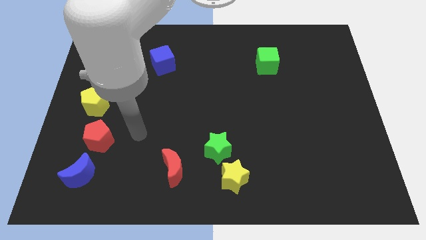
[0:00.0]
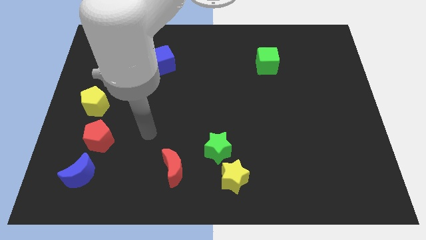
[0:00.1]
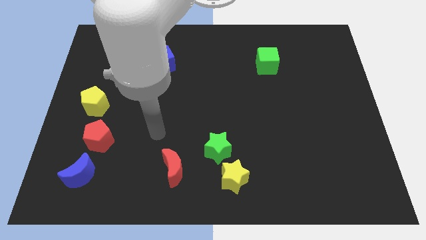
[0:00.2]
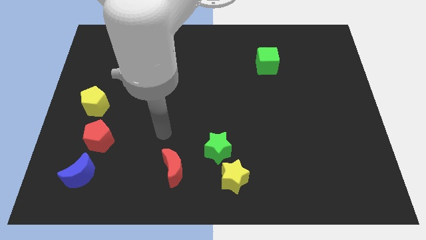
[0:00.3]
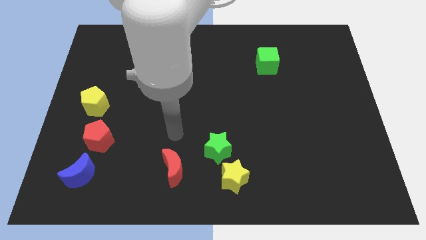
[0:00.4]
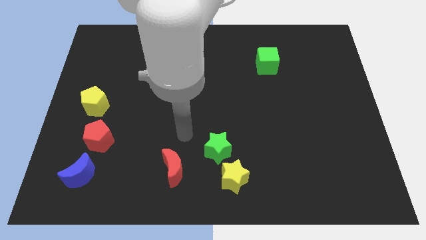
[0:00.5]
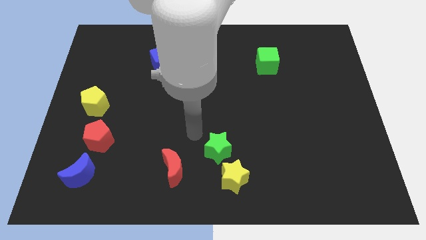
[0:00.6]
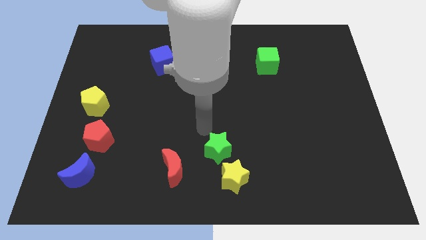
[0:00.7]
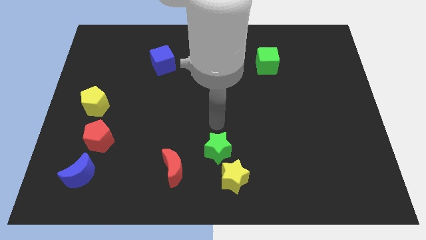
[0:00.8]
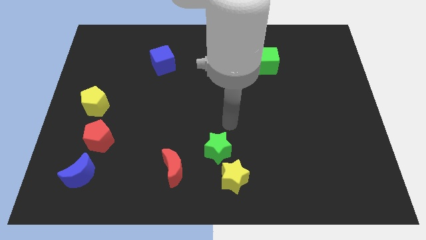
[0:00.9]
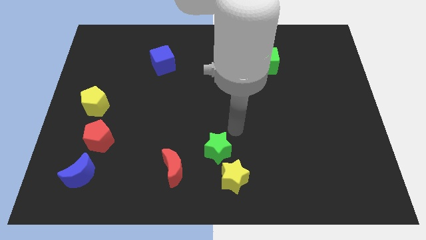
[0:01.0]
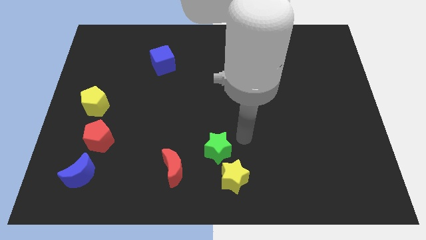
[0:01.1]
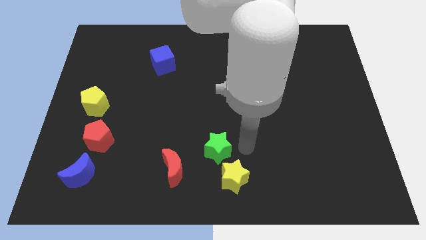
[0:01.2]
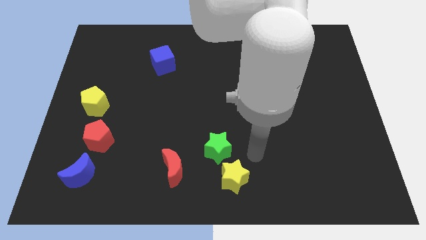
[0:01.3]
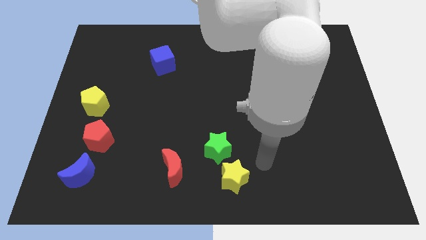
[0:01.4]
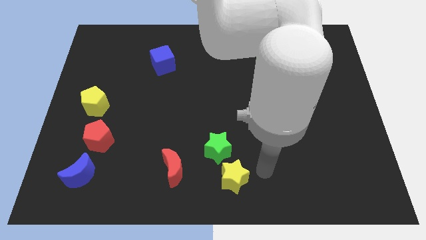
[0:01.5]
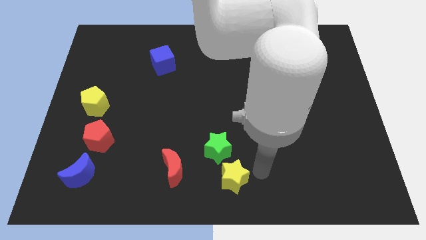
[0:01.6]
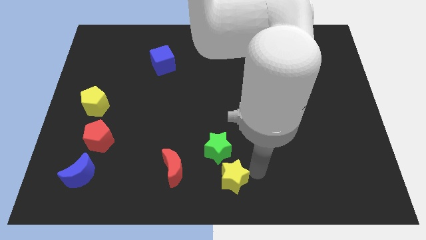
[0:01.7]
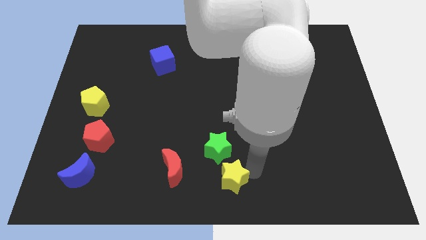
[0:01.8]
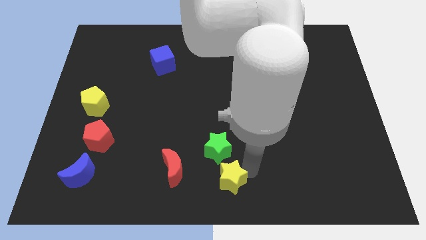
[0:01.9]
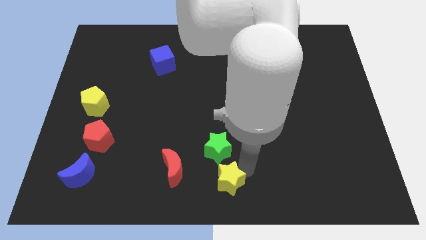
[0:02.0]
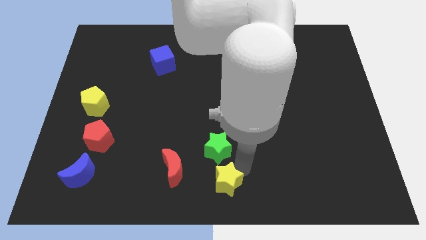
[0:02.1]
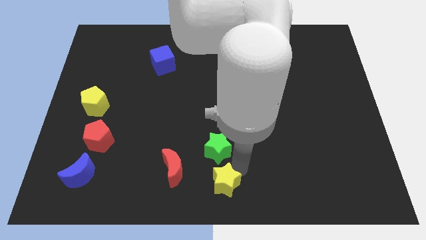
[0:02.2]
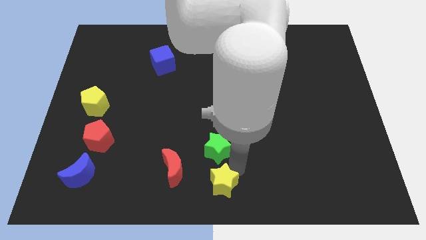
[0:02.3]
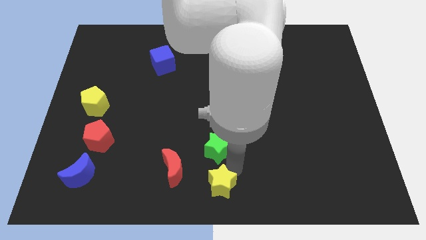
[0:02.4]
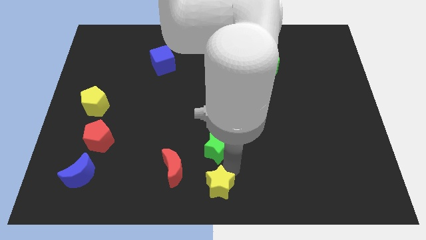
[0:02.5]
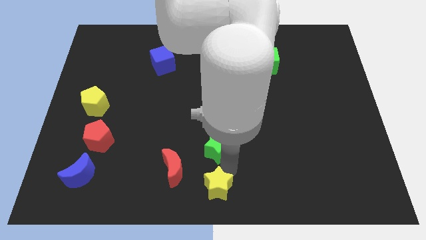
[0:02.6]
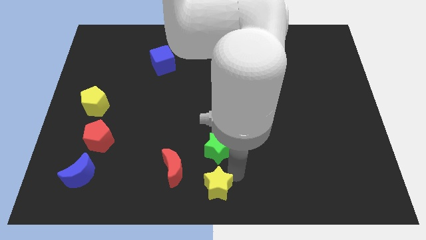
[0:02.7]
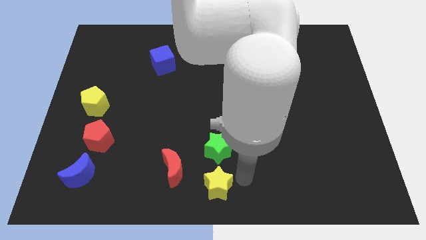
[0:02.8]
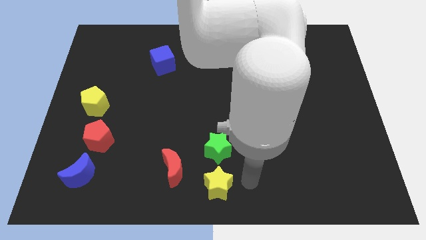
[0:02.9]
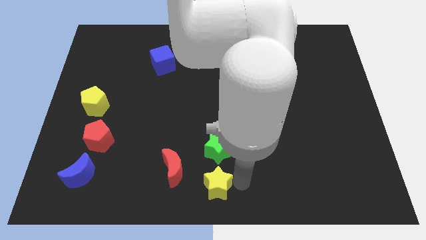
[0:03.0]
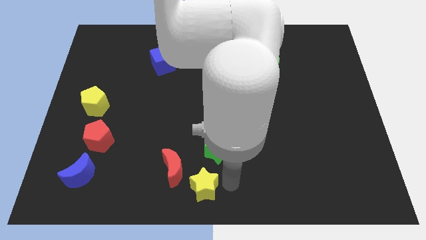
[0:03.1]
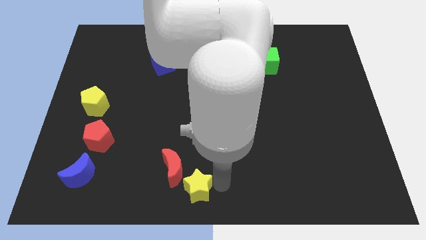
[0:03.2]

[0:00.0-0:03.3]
move the yellow star left a little bit

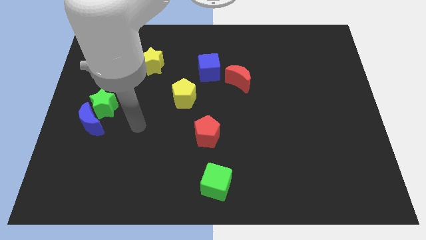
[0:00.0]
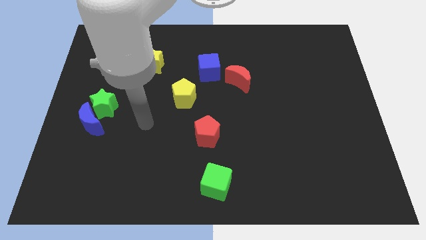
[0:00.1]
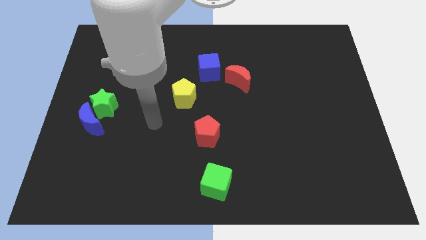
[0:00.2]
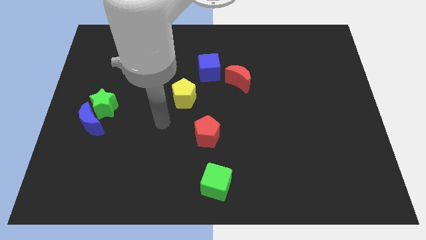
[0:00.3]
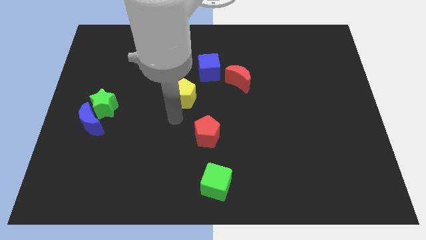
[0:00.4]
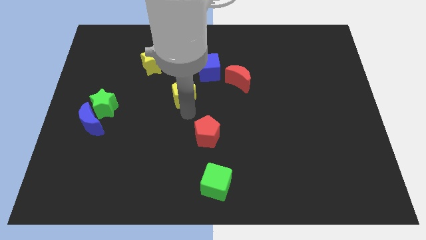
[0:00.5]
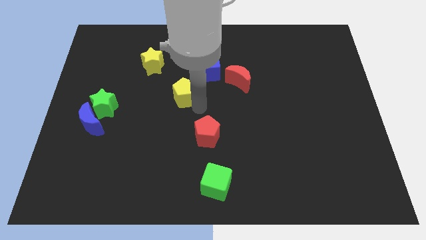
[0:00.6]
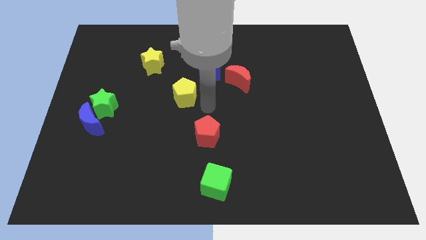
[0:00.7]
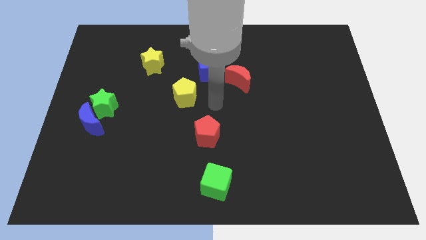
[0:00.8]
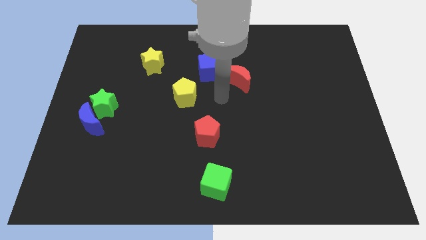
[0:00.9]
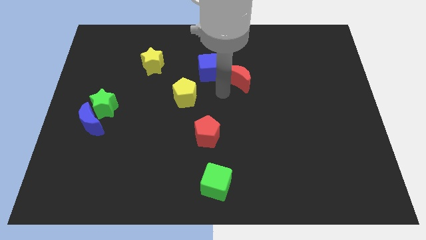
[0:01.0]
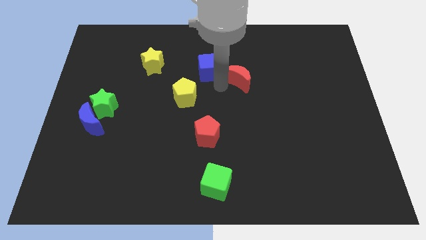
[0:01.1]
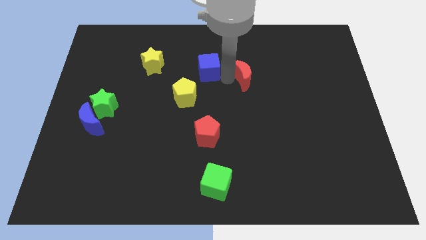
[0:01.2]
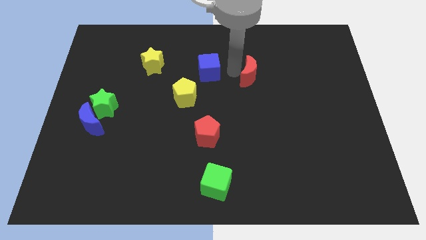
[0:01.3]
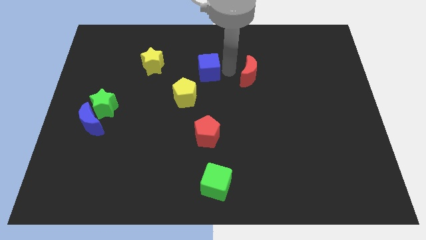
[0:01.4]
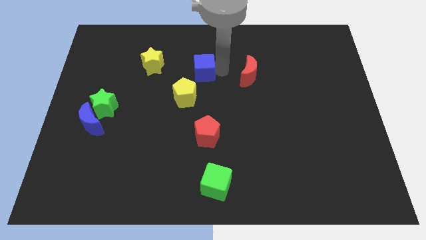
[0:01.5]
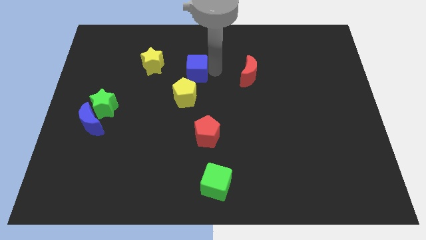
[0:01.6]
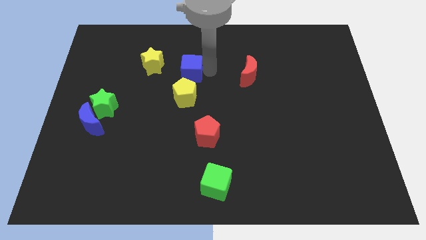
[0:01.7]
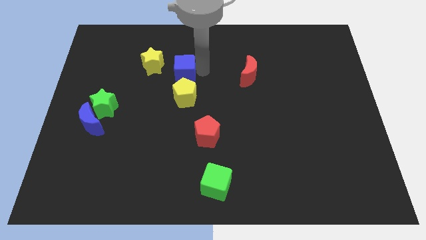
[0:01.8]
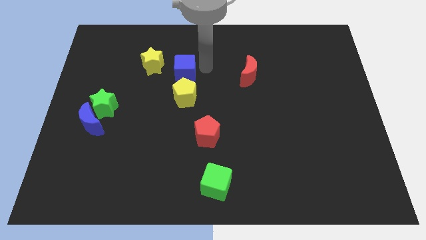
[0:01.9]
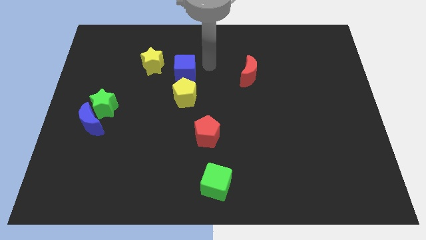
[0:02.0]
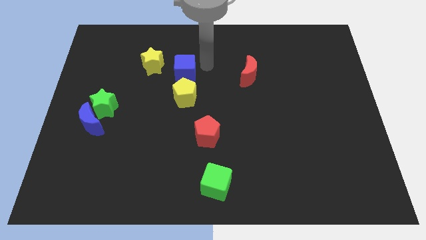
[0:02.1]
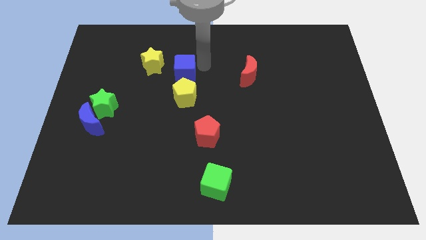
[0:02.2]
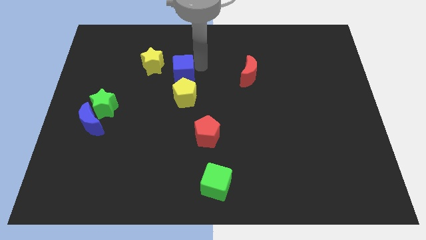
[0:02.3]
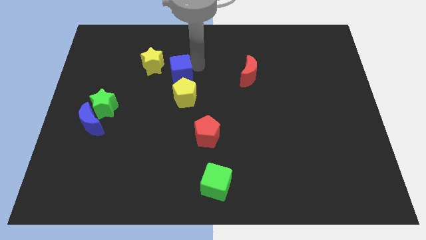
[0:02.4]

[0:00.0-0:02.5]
move the blue cube a little bit left

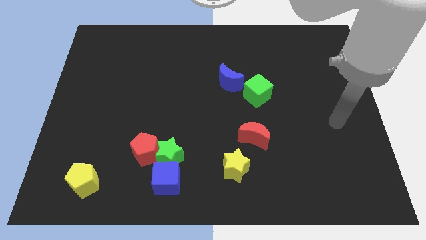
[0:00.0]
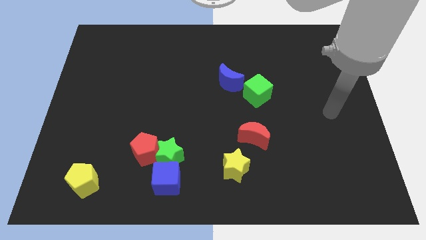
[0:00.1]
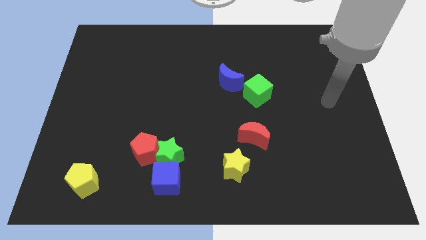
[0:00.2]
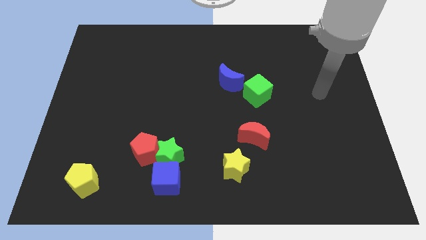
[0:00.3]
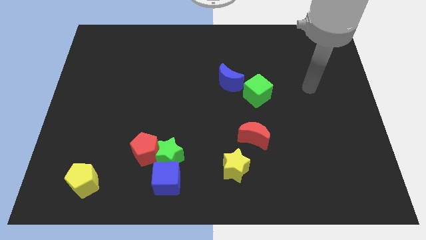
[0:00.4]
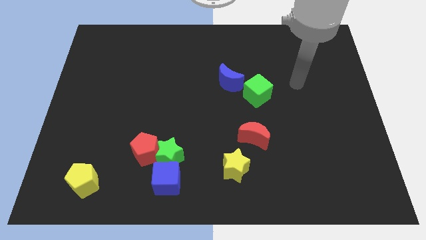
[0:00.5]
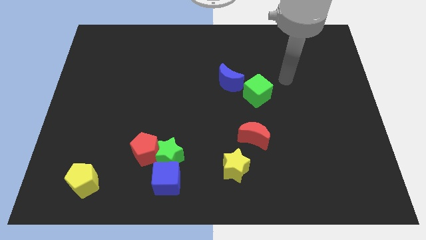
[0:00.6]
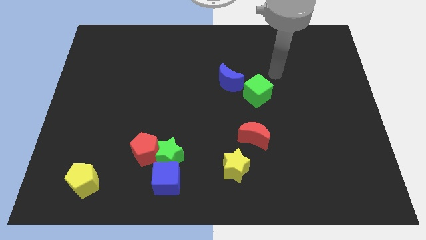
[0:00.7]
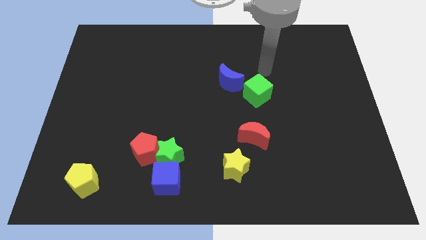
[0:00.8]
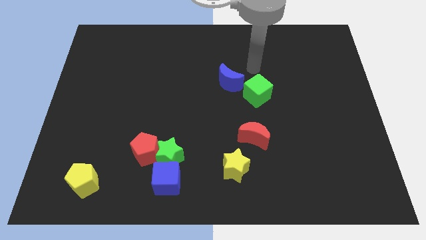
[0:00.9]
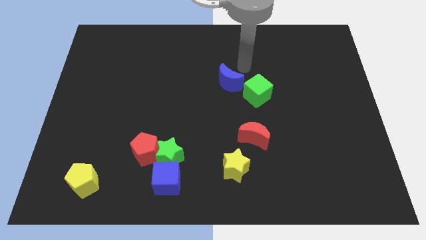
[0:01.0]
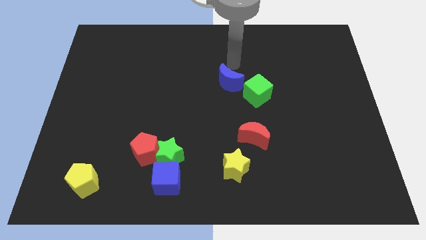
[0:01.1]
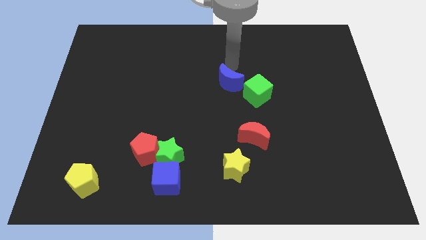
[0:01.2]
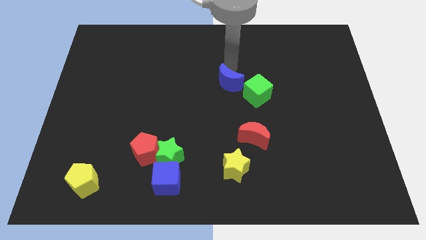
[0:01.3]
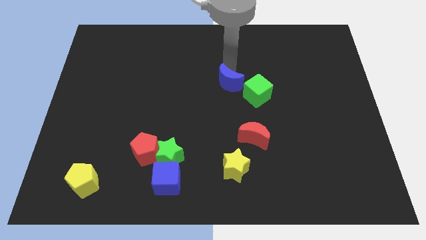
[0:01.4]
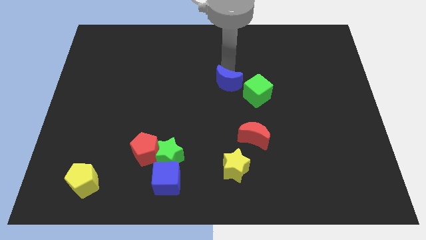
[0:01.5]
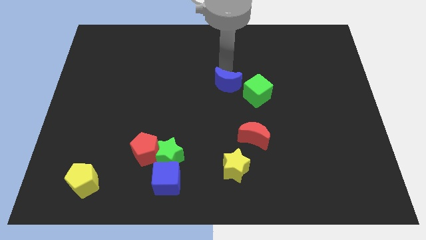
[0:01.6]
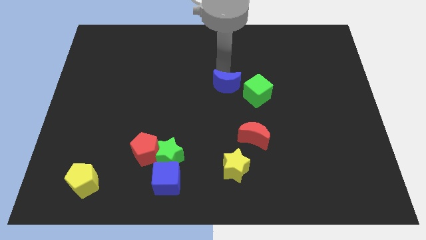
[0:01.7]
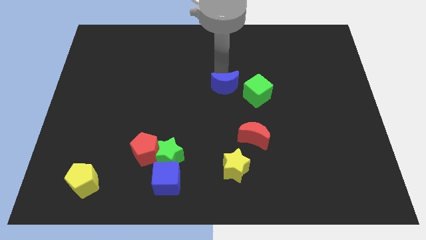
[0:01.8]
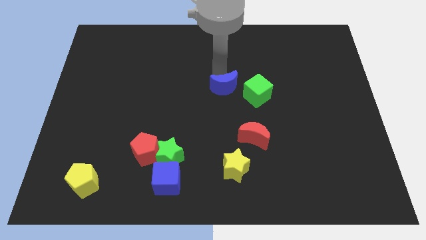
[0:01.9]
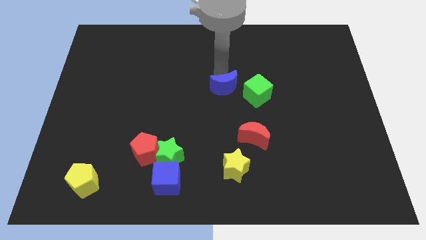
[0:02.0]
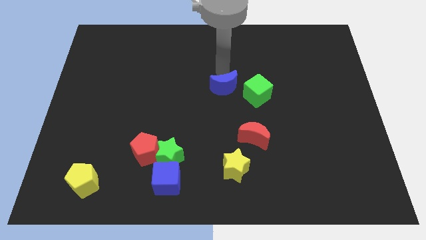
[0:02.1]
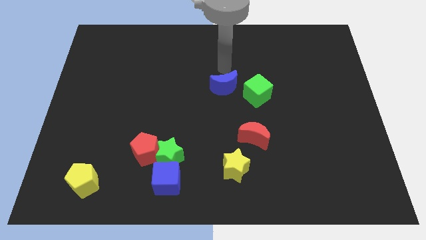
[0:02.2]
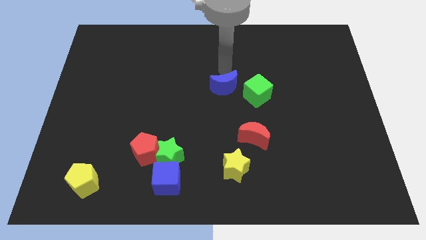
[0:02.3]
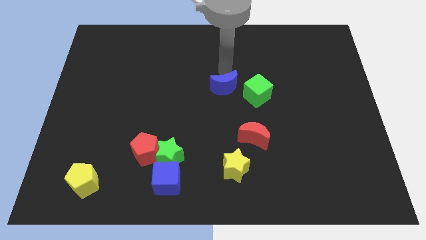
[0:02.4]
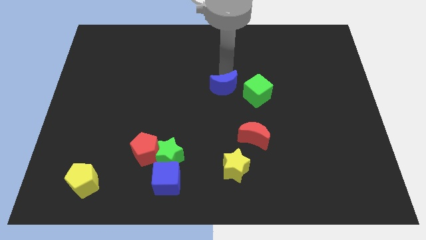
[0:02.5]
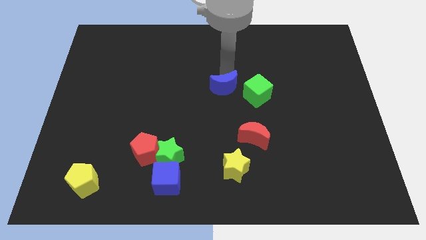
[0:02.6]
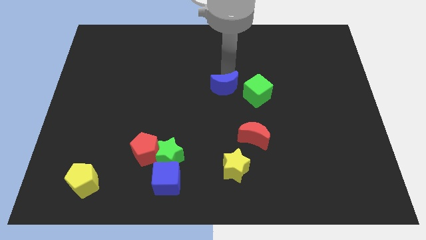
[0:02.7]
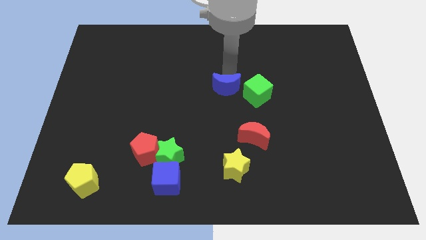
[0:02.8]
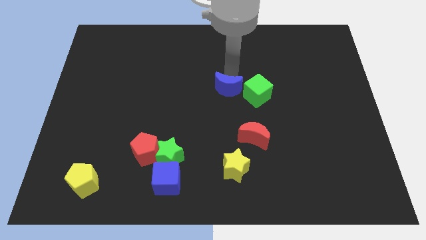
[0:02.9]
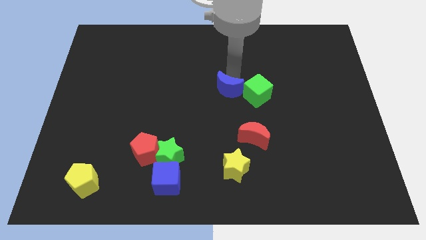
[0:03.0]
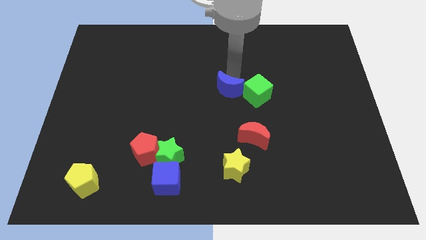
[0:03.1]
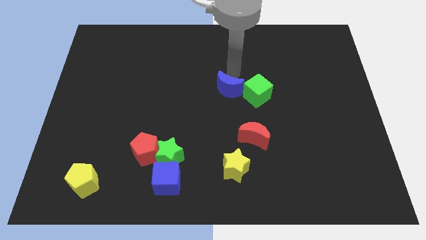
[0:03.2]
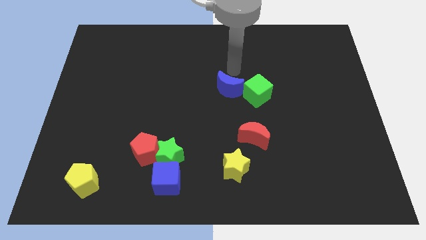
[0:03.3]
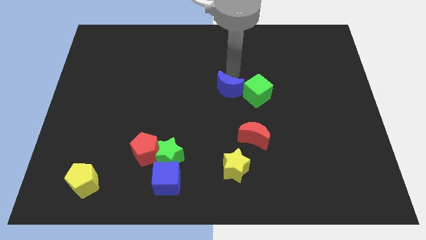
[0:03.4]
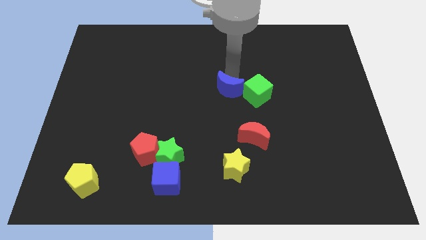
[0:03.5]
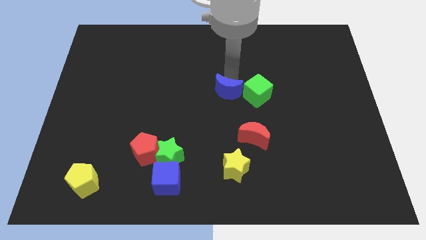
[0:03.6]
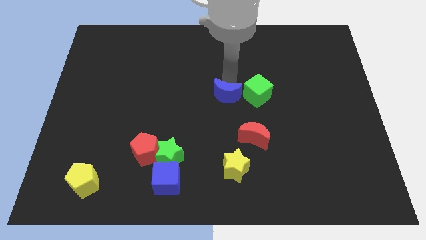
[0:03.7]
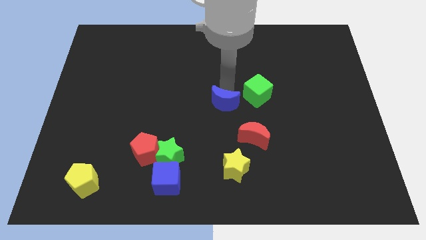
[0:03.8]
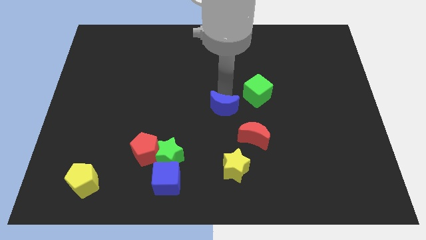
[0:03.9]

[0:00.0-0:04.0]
move the blue moon slightly downwards
